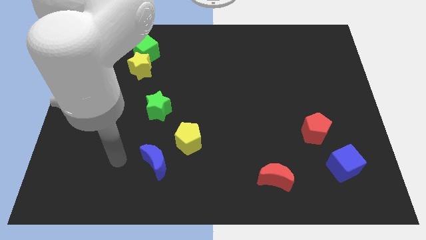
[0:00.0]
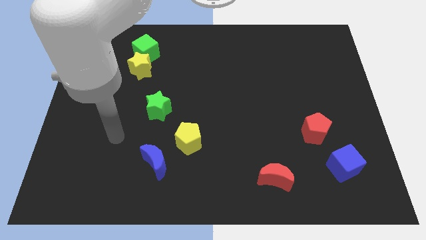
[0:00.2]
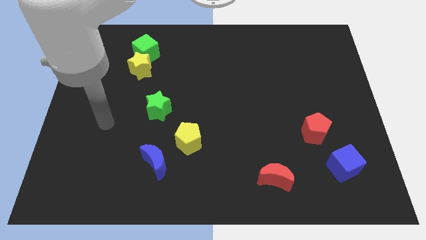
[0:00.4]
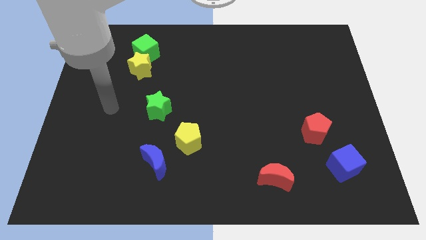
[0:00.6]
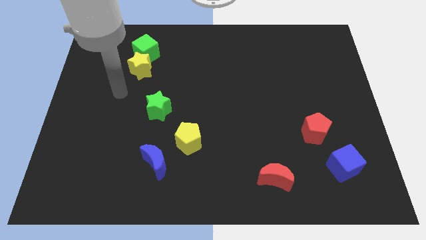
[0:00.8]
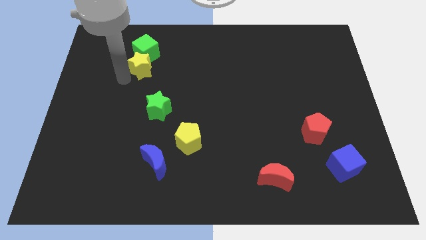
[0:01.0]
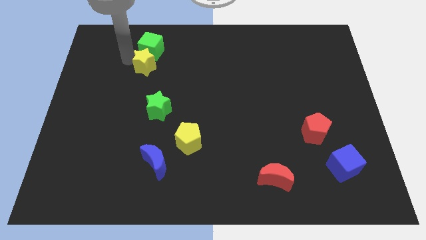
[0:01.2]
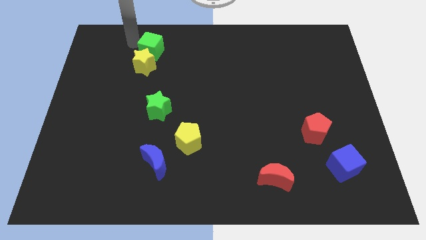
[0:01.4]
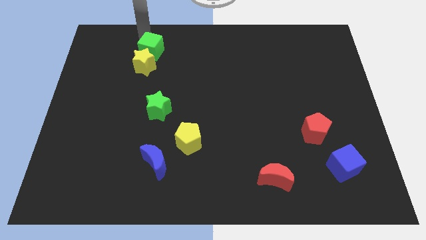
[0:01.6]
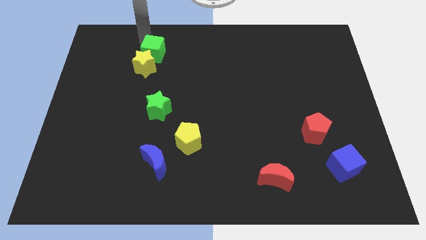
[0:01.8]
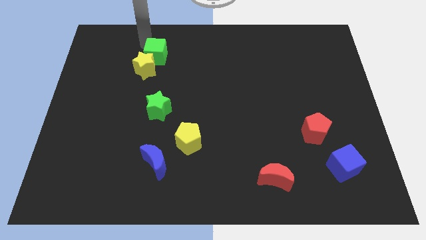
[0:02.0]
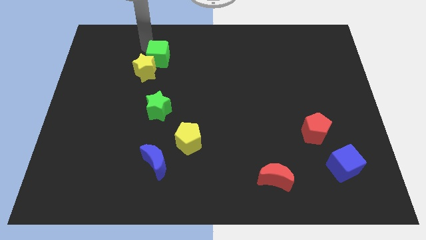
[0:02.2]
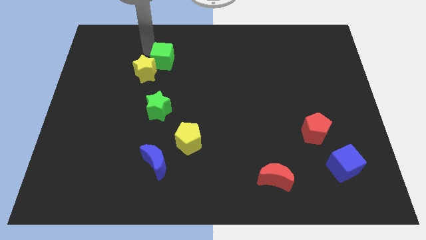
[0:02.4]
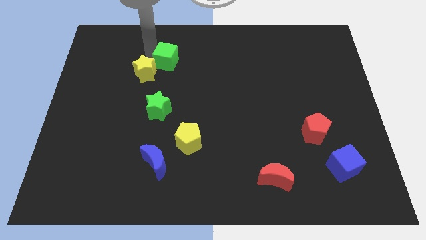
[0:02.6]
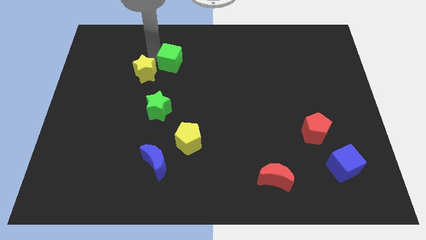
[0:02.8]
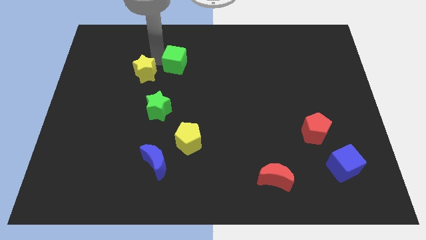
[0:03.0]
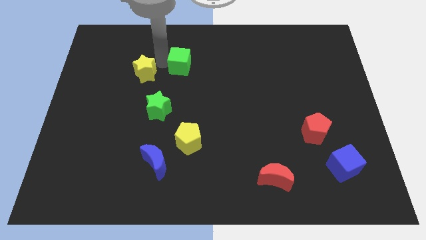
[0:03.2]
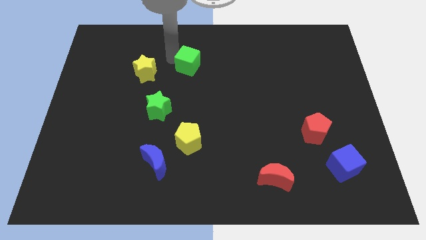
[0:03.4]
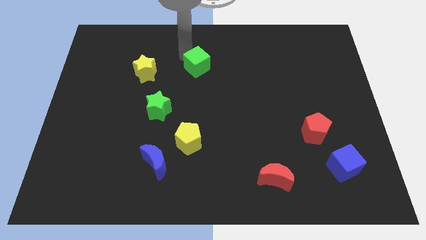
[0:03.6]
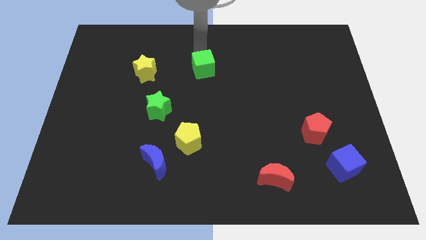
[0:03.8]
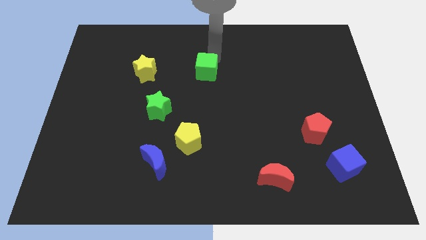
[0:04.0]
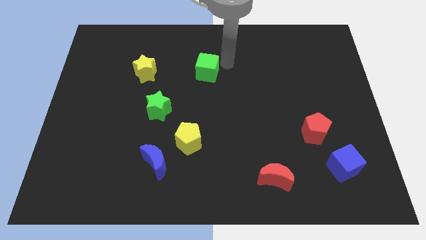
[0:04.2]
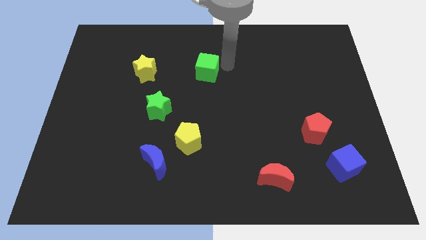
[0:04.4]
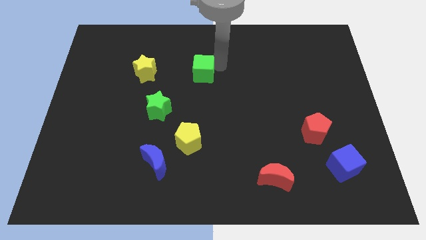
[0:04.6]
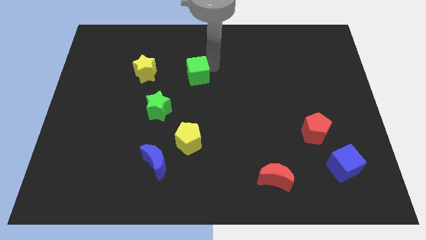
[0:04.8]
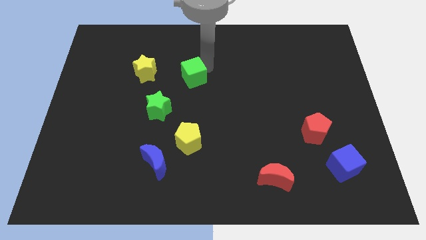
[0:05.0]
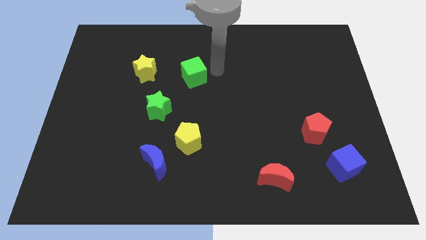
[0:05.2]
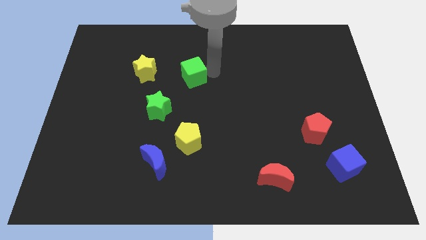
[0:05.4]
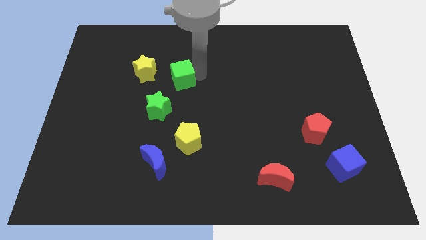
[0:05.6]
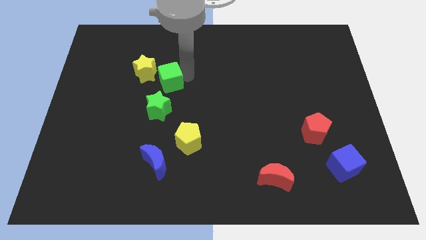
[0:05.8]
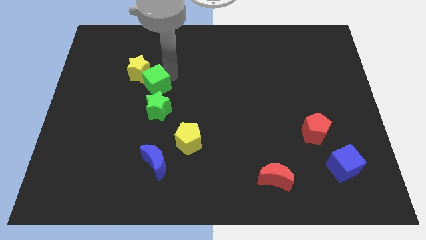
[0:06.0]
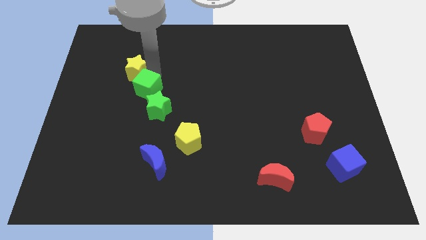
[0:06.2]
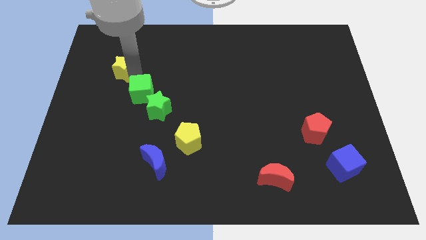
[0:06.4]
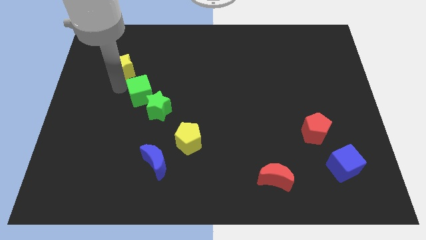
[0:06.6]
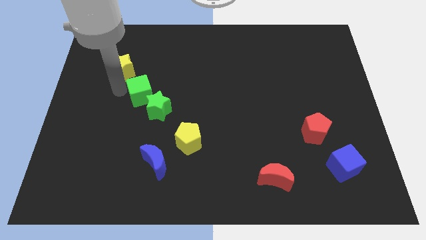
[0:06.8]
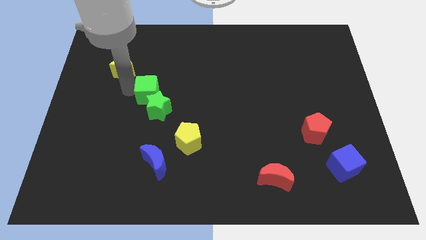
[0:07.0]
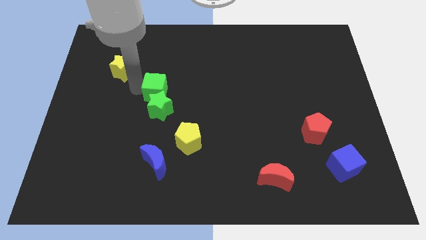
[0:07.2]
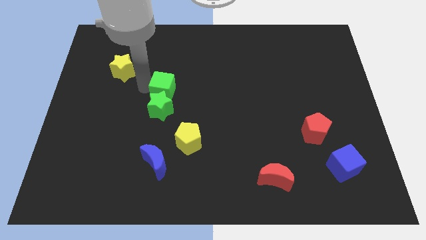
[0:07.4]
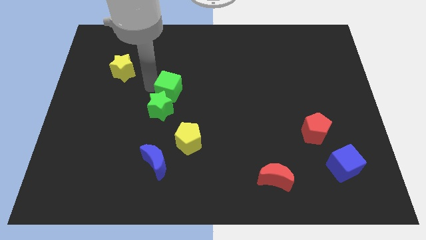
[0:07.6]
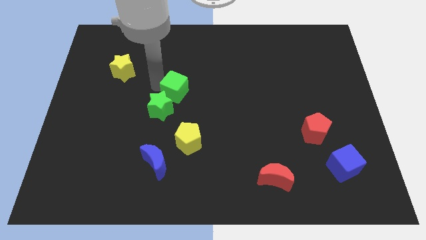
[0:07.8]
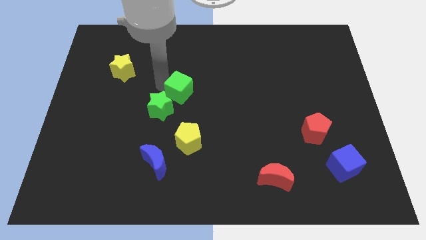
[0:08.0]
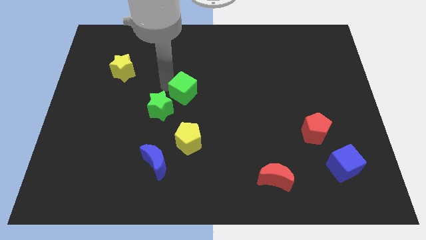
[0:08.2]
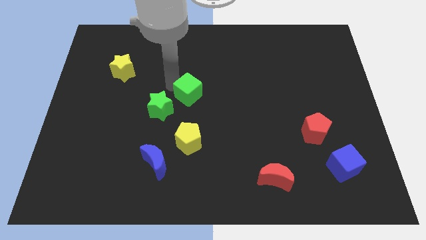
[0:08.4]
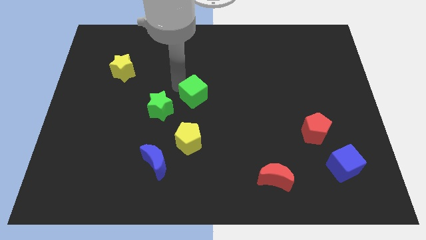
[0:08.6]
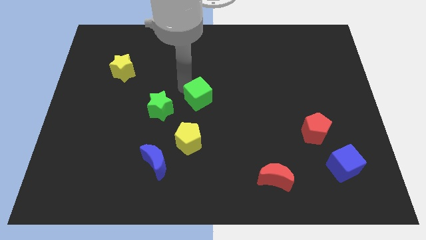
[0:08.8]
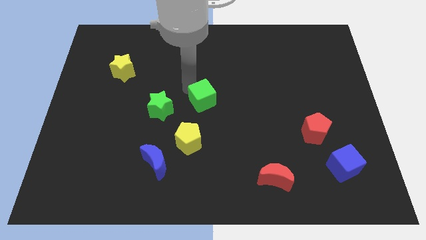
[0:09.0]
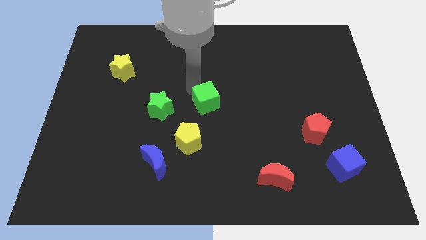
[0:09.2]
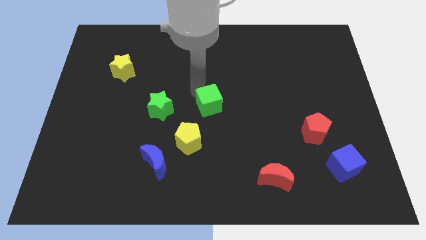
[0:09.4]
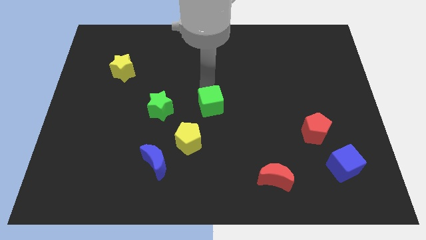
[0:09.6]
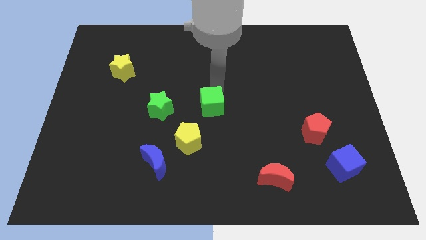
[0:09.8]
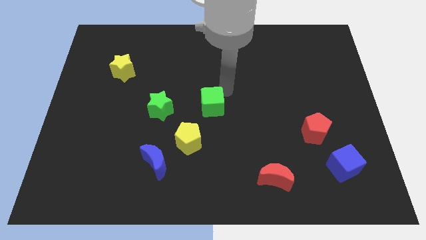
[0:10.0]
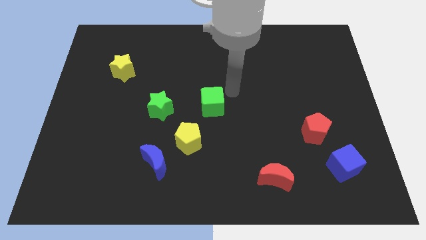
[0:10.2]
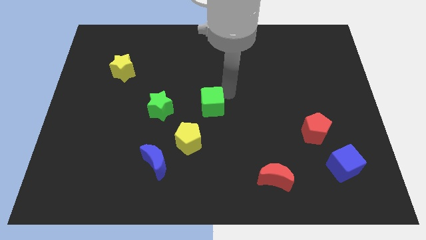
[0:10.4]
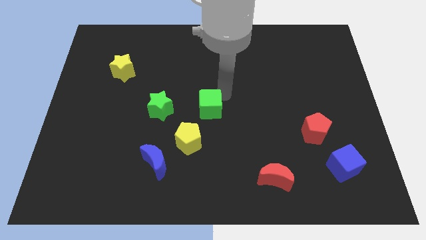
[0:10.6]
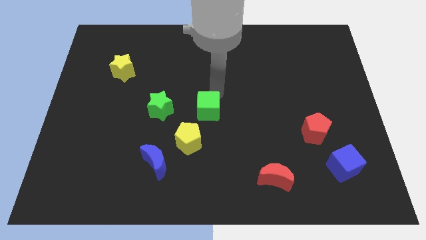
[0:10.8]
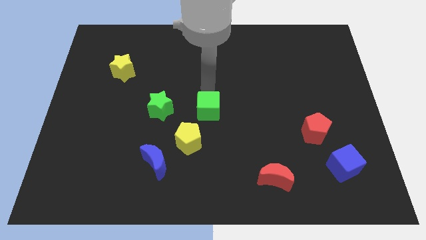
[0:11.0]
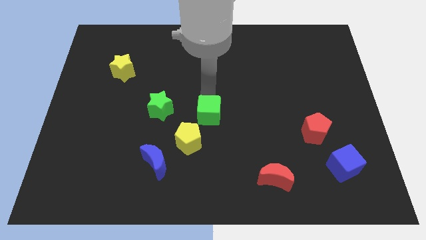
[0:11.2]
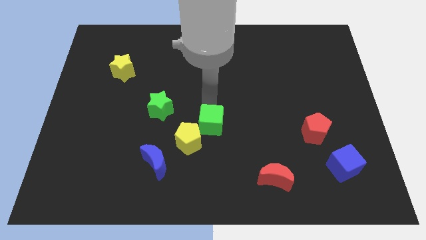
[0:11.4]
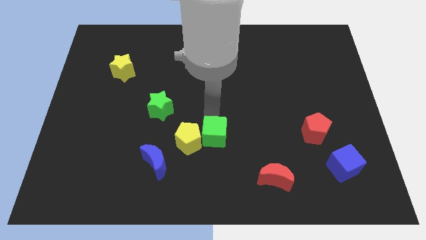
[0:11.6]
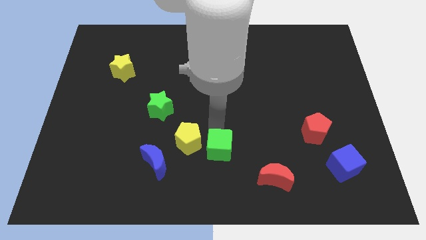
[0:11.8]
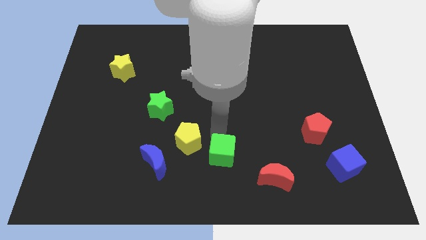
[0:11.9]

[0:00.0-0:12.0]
slide the green cube to the bottom side
